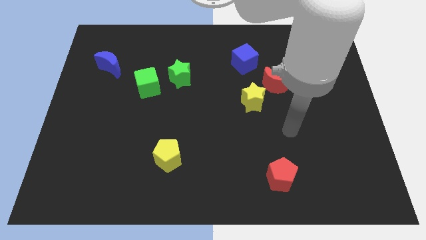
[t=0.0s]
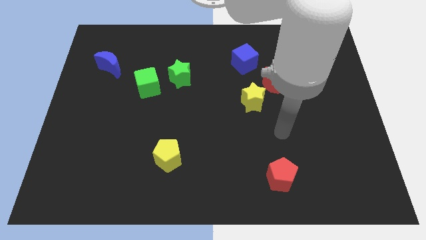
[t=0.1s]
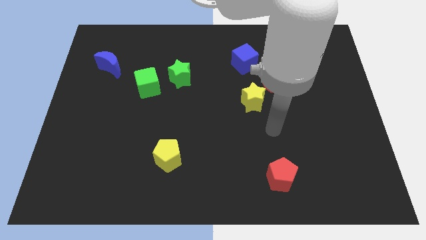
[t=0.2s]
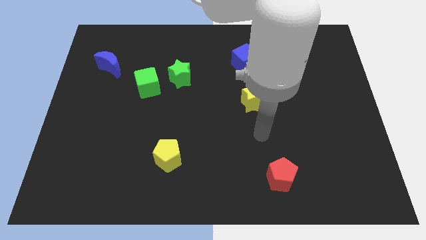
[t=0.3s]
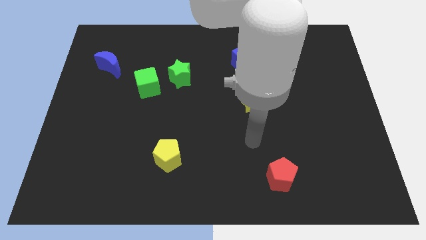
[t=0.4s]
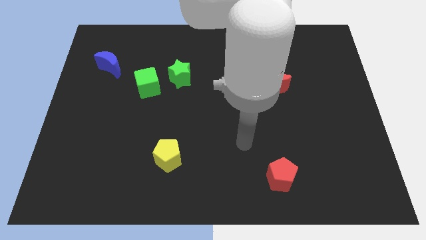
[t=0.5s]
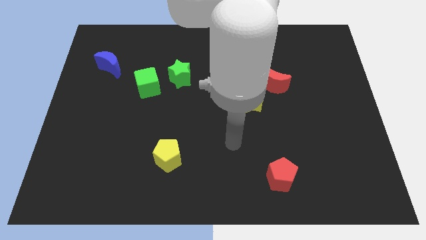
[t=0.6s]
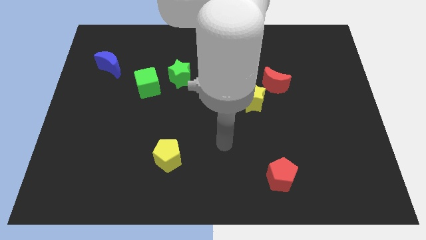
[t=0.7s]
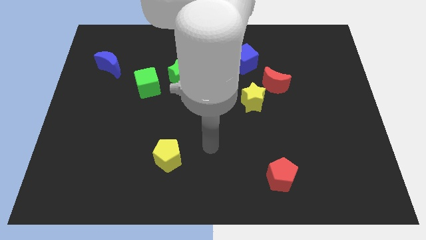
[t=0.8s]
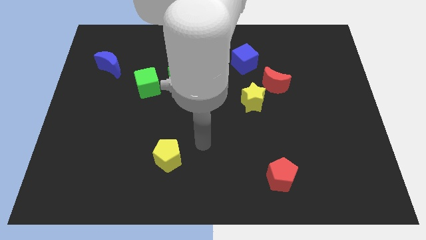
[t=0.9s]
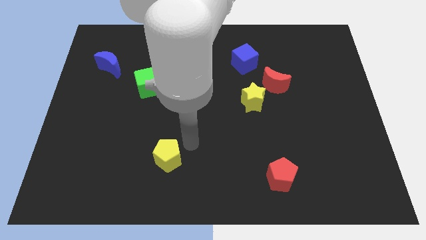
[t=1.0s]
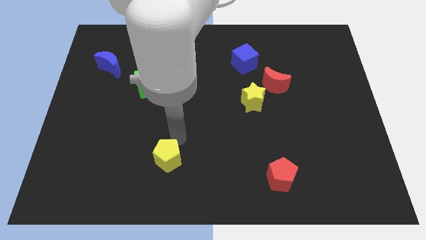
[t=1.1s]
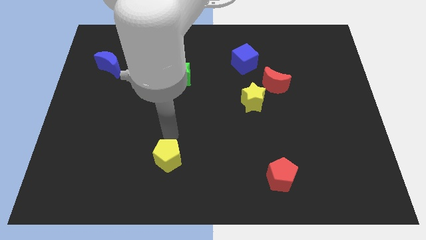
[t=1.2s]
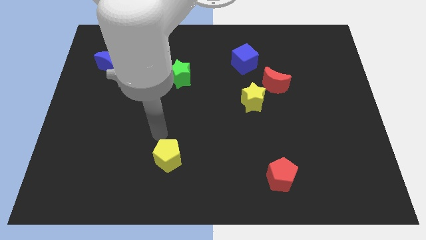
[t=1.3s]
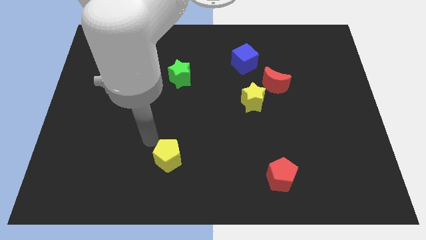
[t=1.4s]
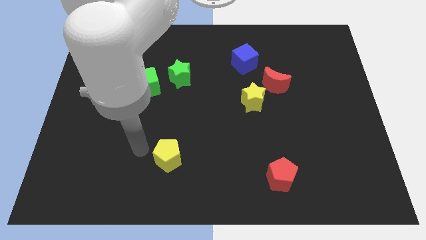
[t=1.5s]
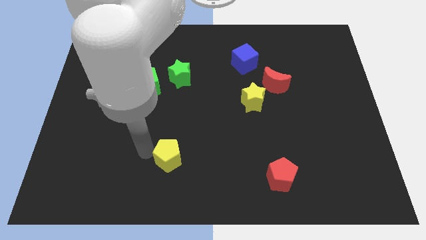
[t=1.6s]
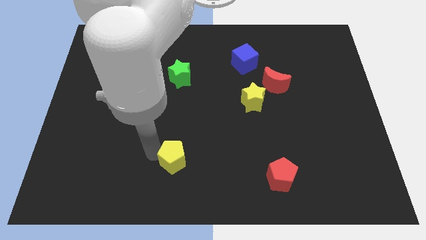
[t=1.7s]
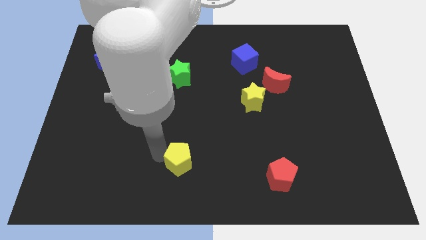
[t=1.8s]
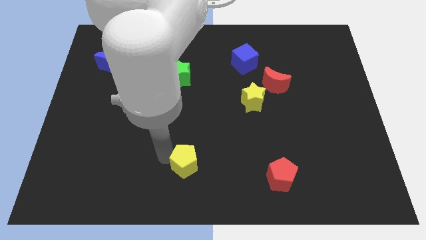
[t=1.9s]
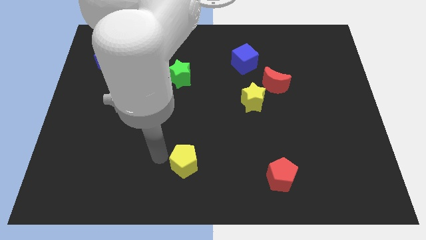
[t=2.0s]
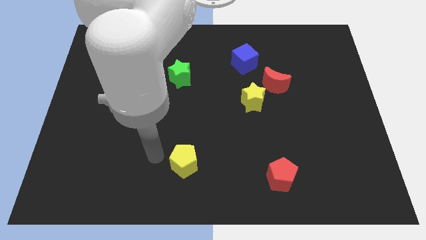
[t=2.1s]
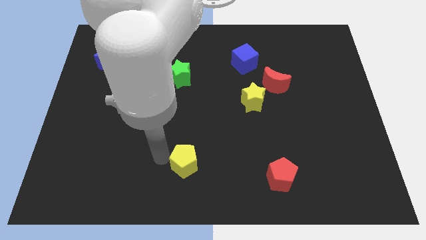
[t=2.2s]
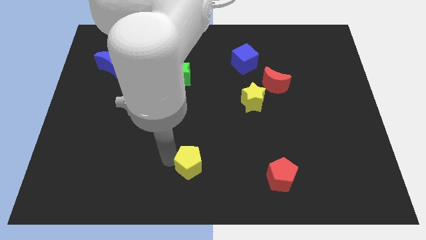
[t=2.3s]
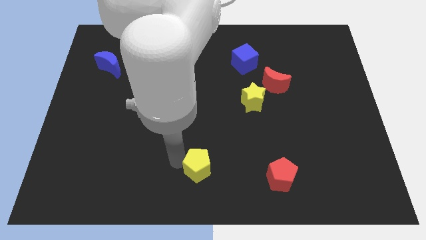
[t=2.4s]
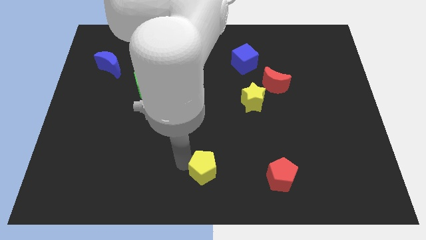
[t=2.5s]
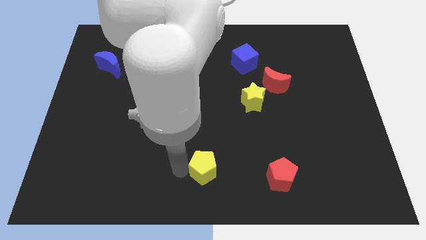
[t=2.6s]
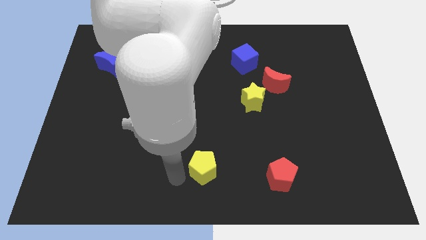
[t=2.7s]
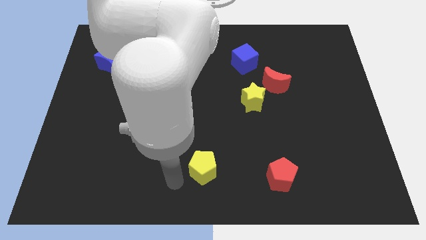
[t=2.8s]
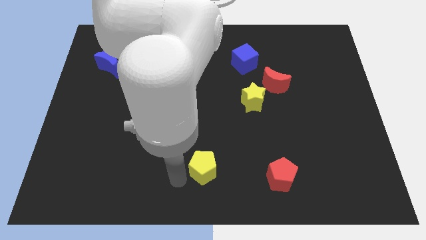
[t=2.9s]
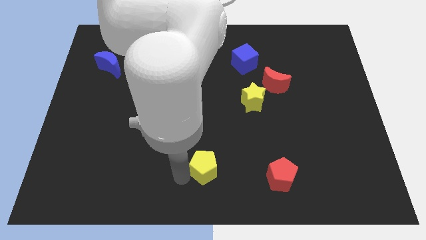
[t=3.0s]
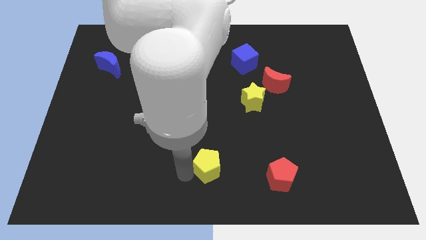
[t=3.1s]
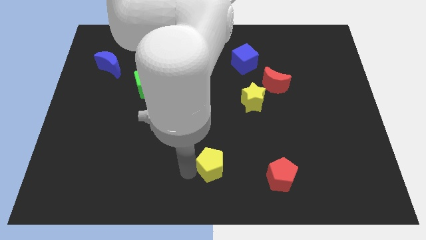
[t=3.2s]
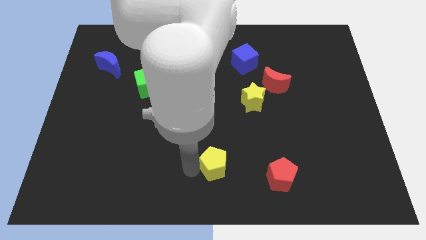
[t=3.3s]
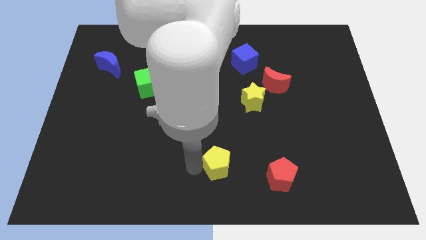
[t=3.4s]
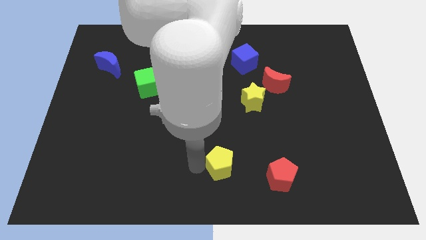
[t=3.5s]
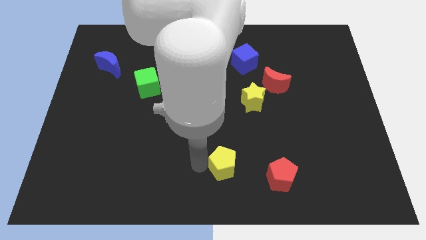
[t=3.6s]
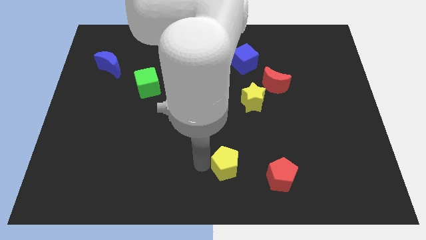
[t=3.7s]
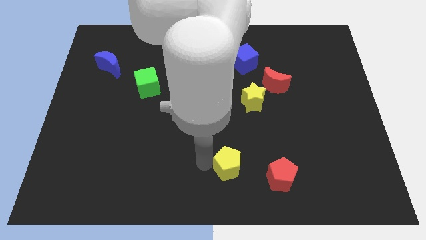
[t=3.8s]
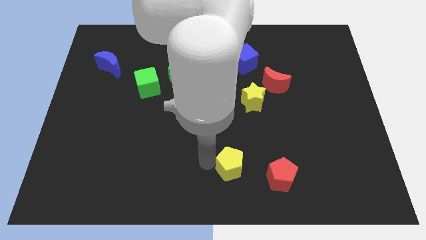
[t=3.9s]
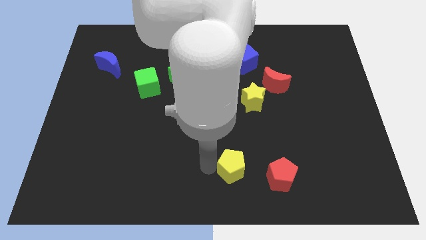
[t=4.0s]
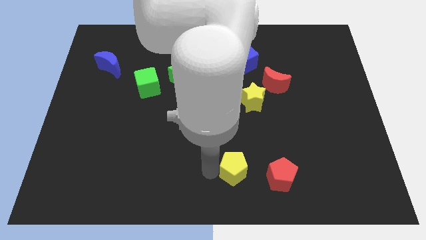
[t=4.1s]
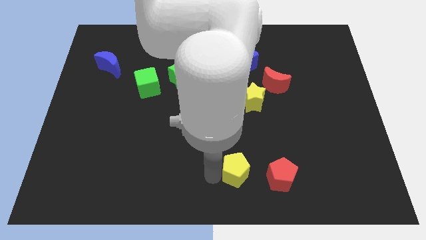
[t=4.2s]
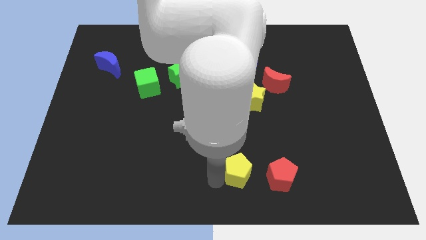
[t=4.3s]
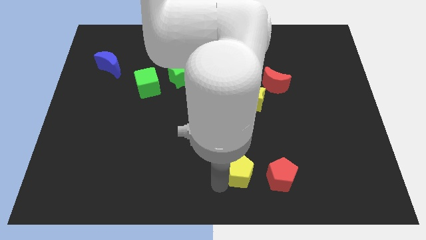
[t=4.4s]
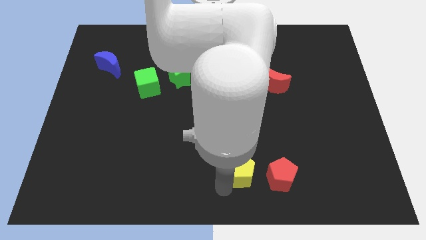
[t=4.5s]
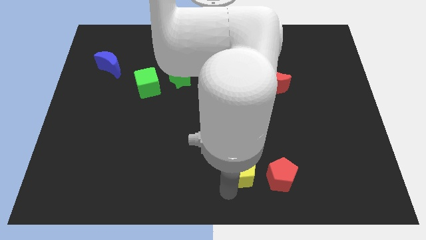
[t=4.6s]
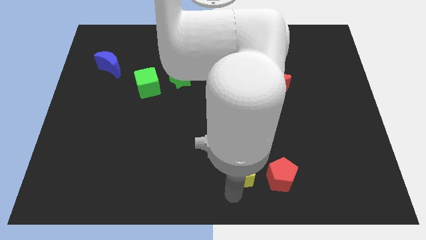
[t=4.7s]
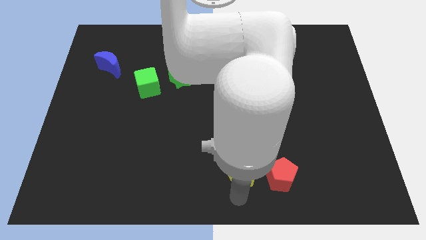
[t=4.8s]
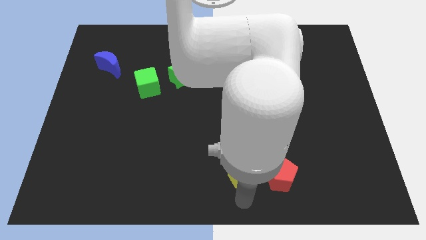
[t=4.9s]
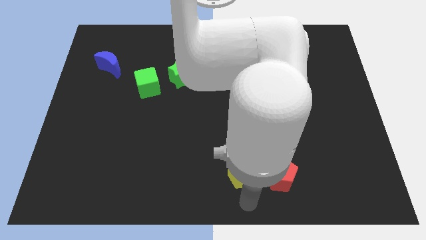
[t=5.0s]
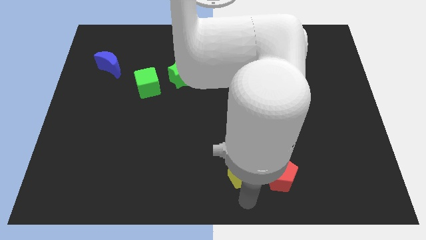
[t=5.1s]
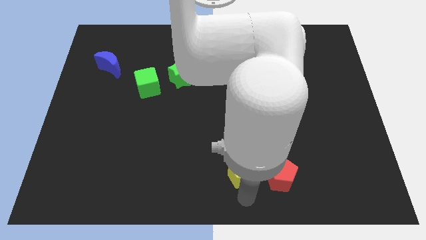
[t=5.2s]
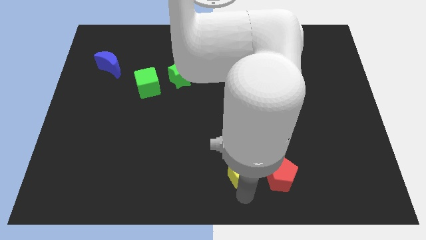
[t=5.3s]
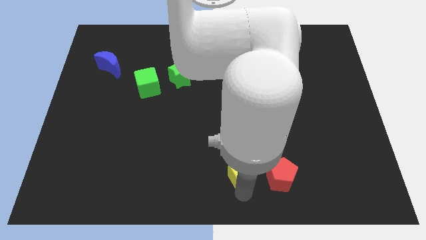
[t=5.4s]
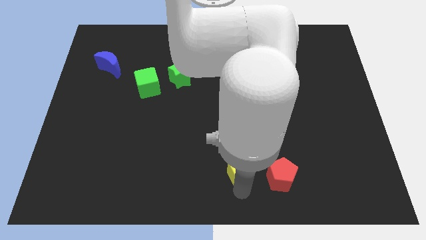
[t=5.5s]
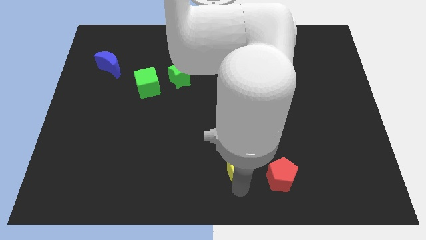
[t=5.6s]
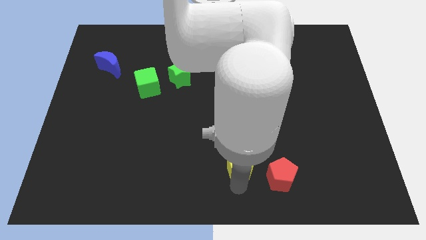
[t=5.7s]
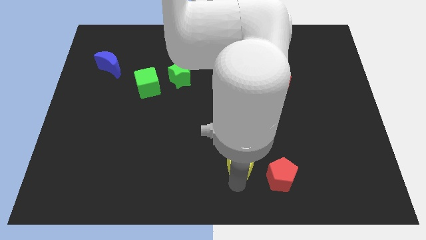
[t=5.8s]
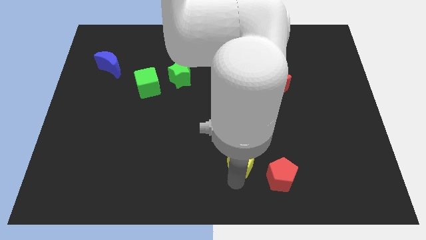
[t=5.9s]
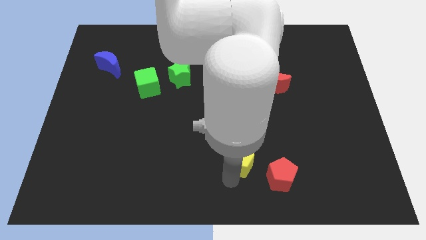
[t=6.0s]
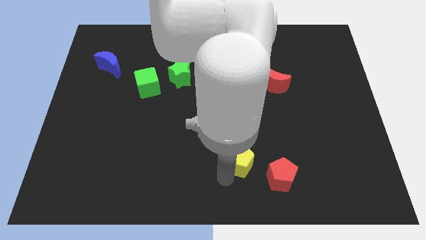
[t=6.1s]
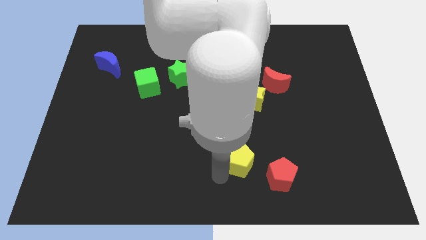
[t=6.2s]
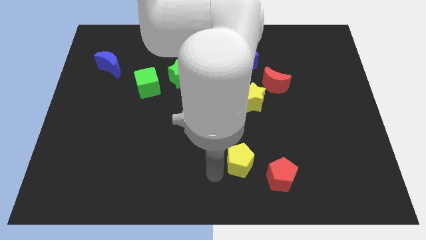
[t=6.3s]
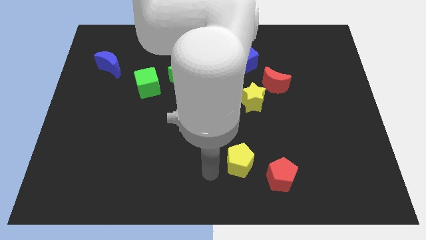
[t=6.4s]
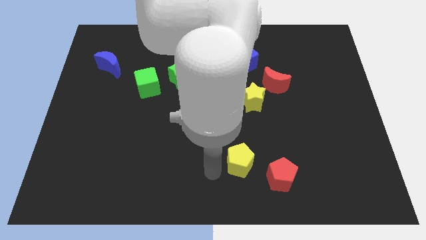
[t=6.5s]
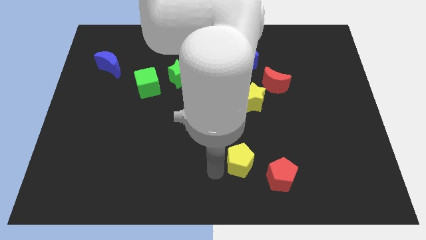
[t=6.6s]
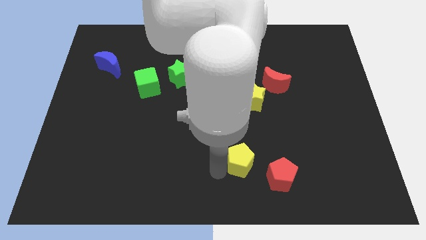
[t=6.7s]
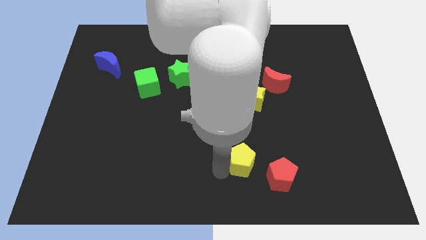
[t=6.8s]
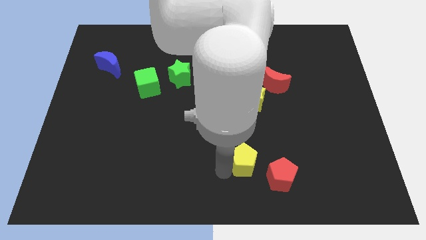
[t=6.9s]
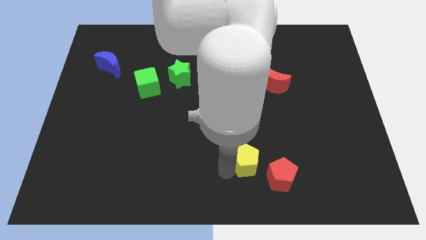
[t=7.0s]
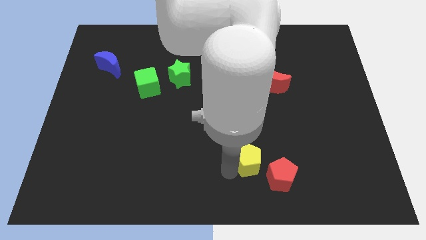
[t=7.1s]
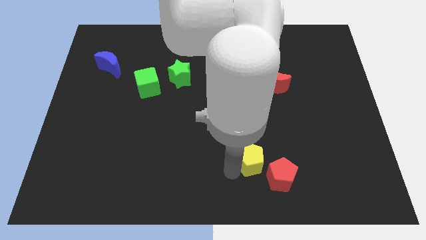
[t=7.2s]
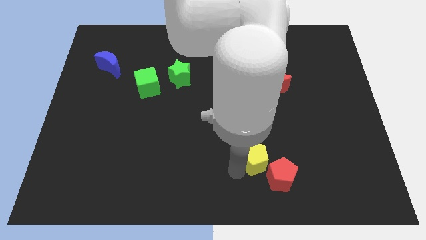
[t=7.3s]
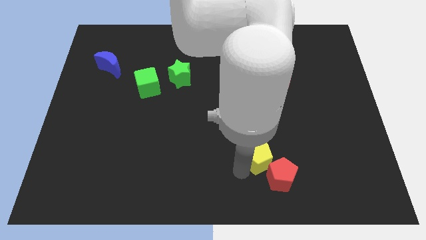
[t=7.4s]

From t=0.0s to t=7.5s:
put the yellow pentagon above the red pentagon
